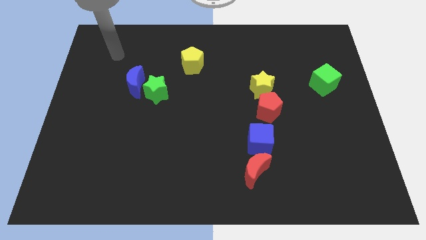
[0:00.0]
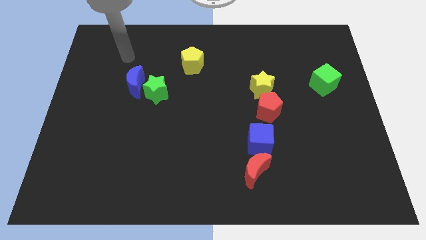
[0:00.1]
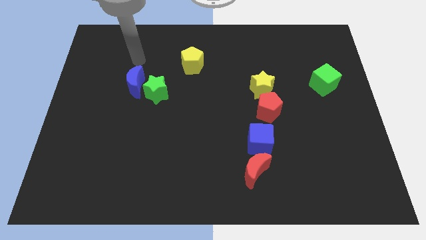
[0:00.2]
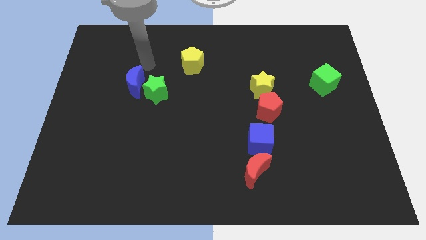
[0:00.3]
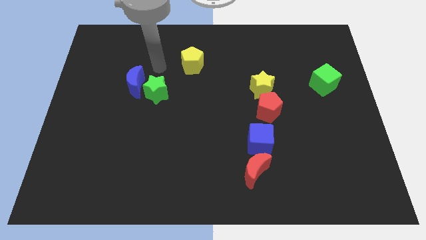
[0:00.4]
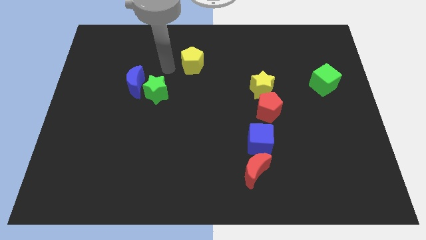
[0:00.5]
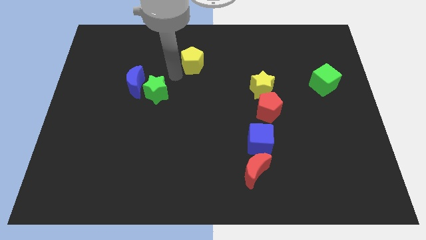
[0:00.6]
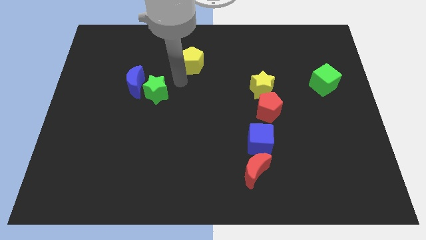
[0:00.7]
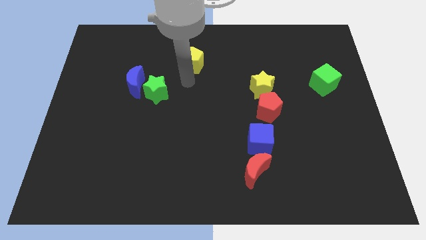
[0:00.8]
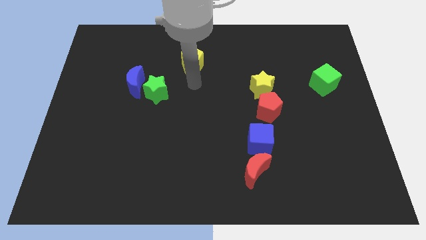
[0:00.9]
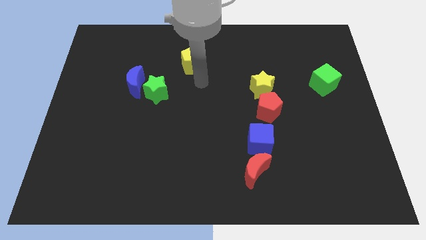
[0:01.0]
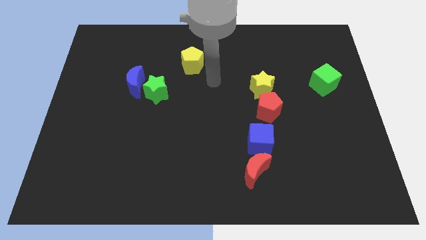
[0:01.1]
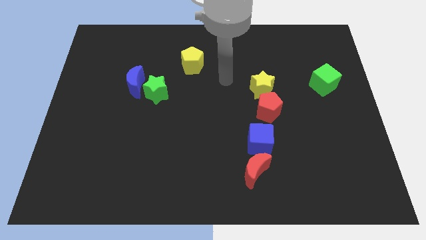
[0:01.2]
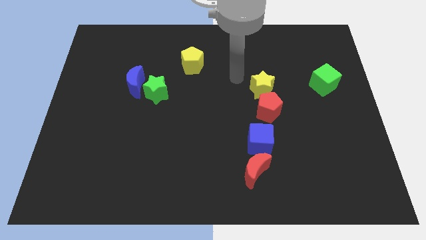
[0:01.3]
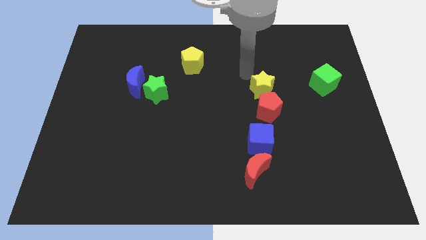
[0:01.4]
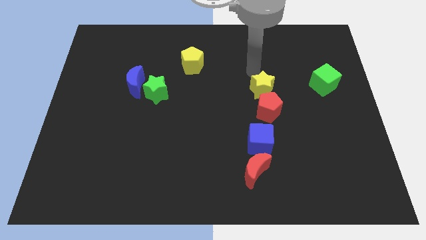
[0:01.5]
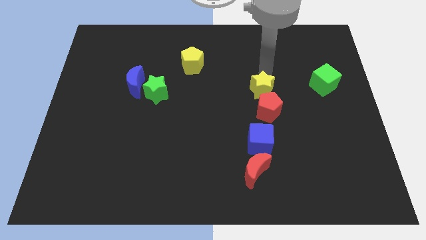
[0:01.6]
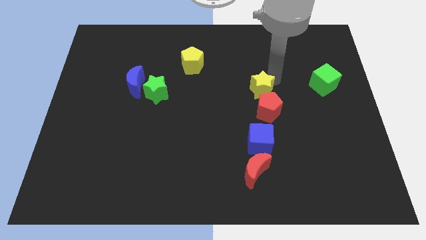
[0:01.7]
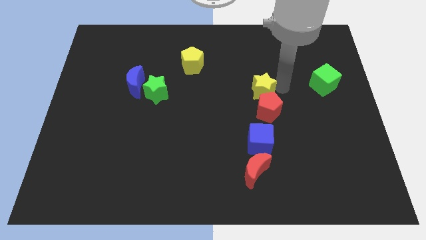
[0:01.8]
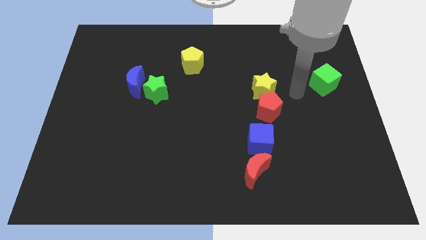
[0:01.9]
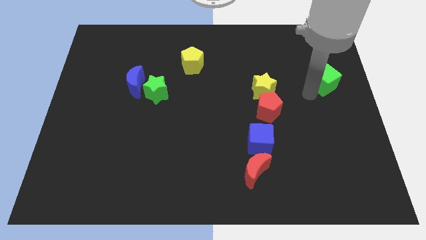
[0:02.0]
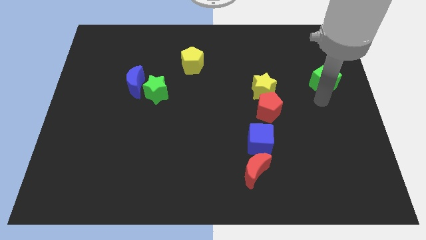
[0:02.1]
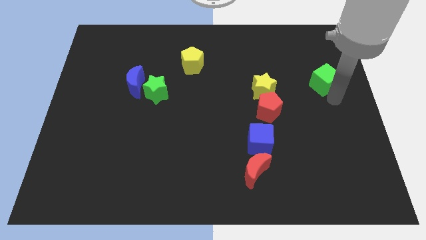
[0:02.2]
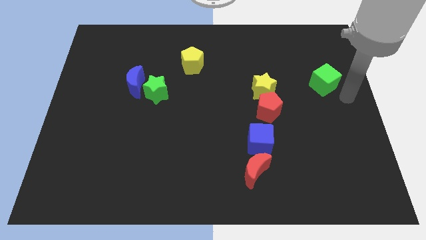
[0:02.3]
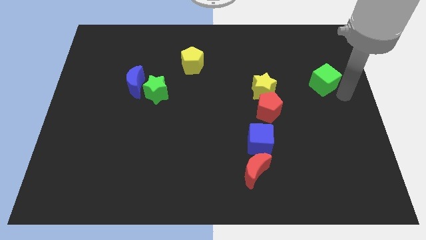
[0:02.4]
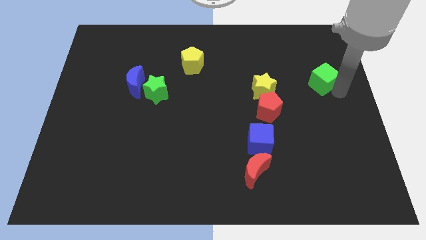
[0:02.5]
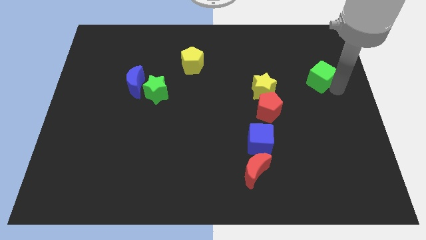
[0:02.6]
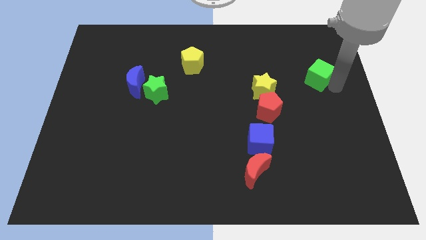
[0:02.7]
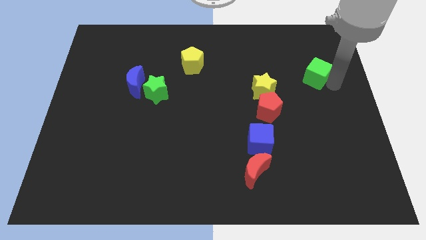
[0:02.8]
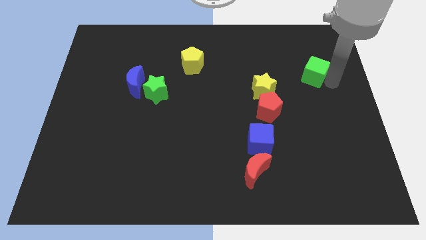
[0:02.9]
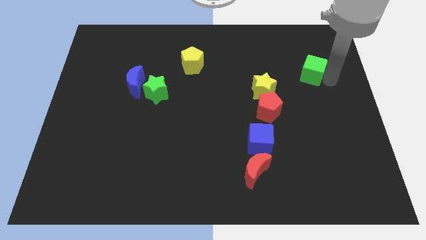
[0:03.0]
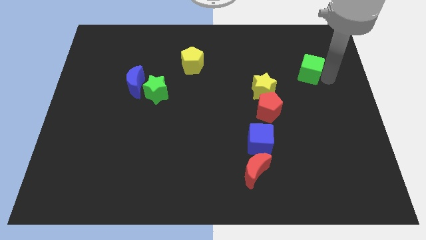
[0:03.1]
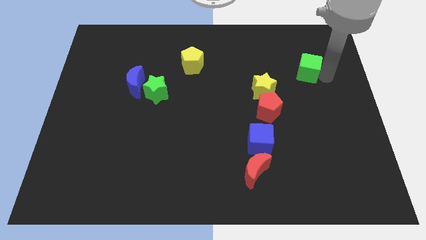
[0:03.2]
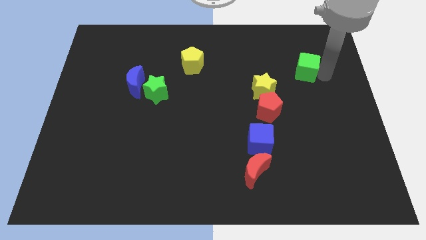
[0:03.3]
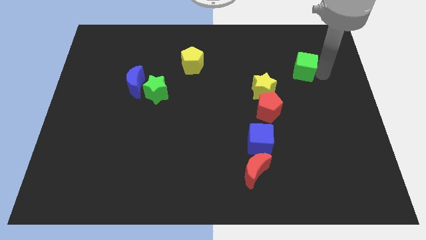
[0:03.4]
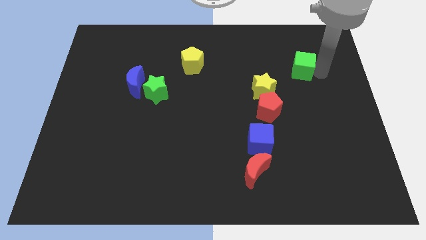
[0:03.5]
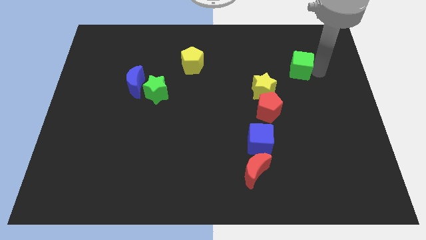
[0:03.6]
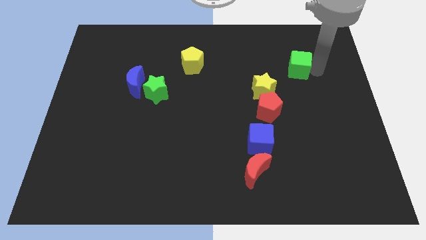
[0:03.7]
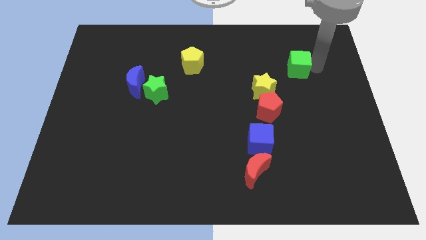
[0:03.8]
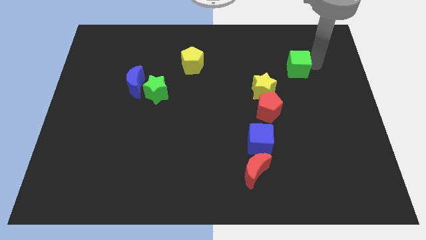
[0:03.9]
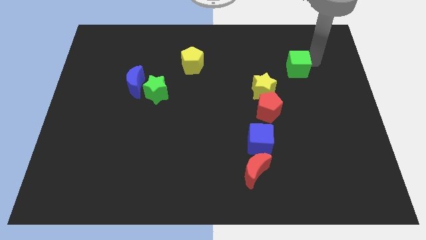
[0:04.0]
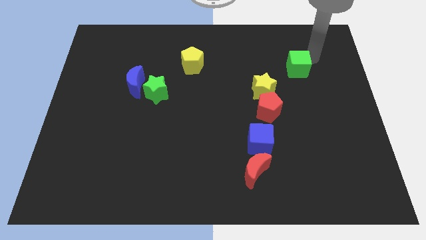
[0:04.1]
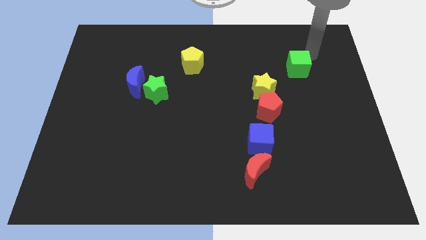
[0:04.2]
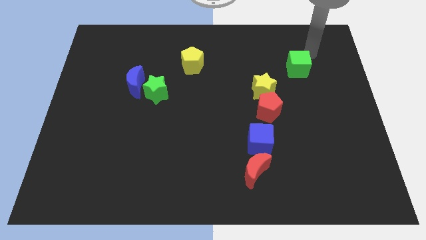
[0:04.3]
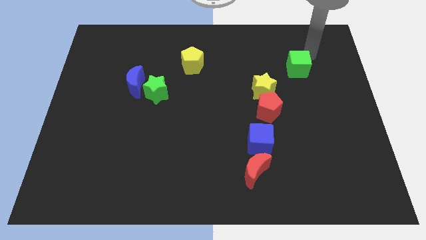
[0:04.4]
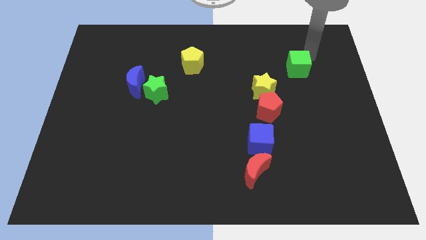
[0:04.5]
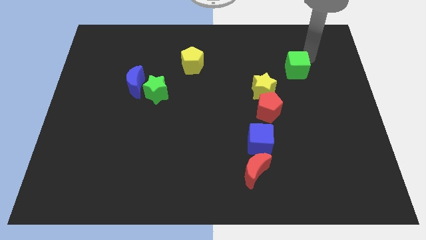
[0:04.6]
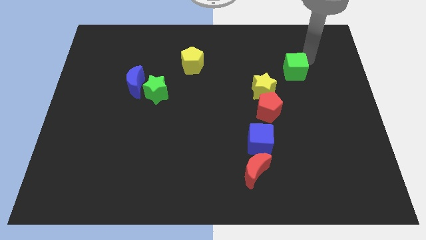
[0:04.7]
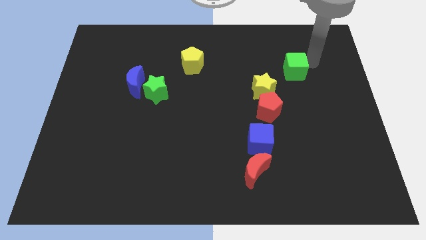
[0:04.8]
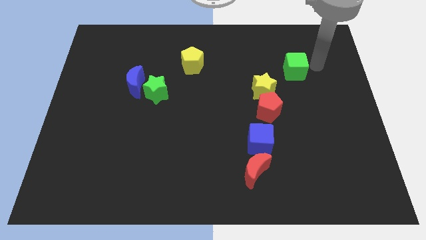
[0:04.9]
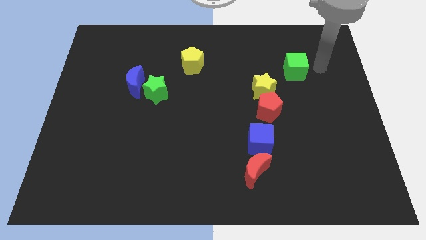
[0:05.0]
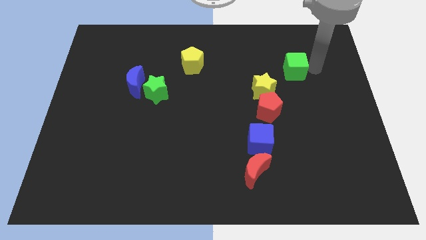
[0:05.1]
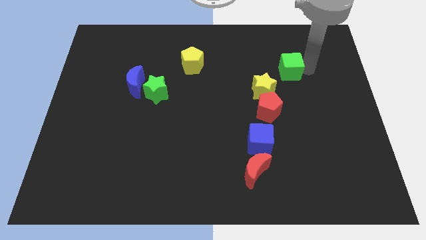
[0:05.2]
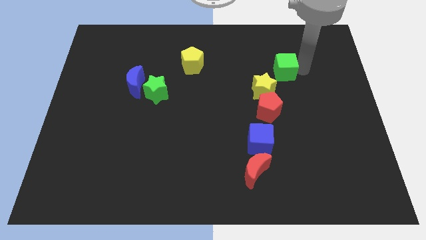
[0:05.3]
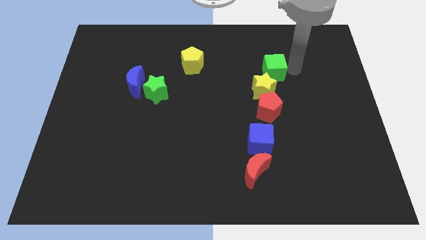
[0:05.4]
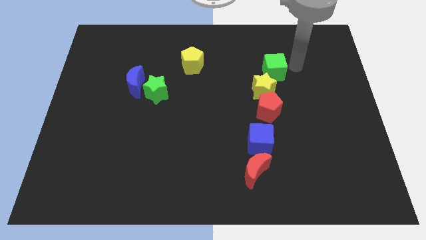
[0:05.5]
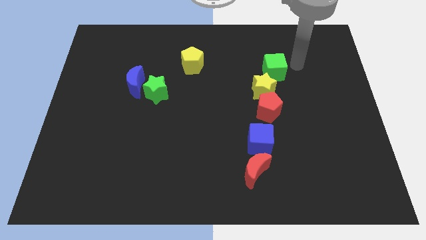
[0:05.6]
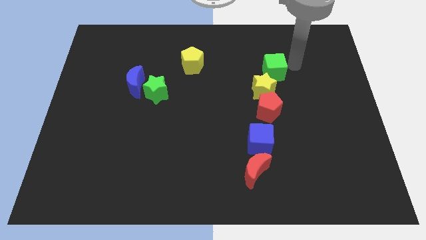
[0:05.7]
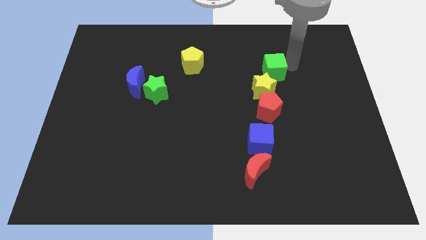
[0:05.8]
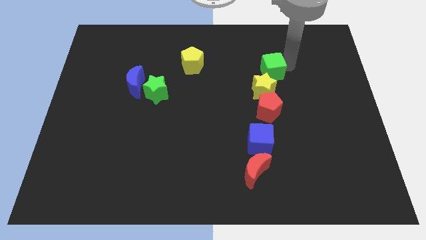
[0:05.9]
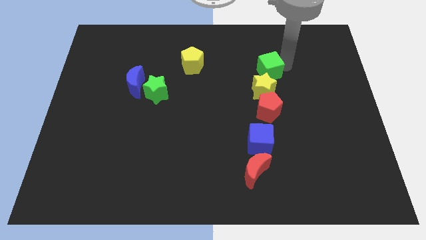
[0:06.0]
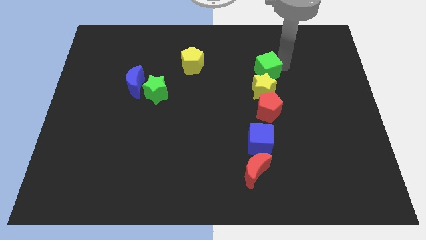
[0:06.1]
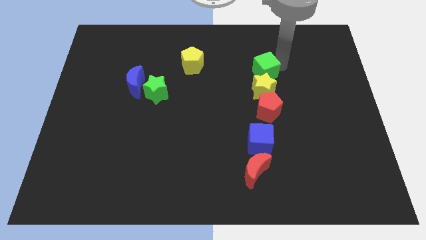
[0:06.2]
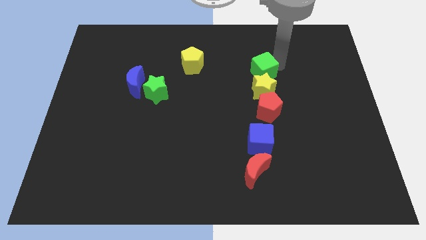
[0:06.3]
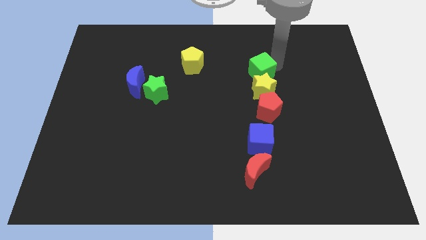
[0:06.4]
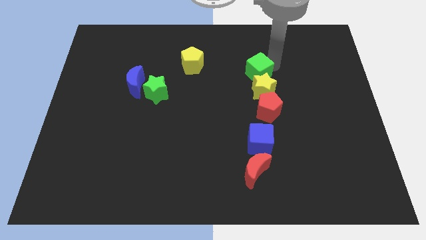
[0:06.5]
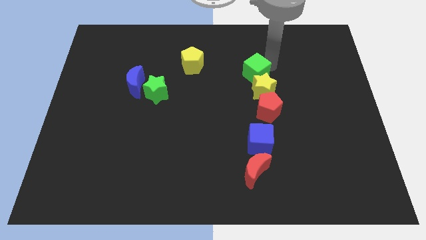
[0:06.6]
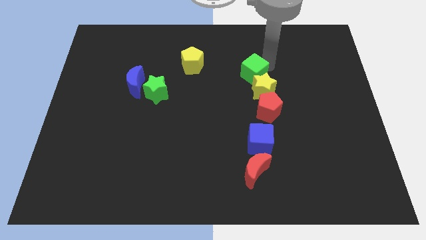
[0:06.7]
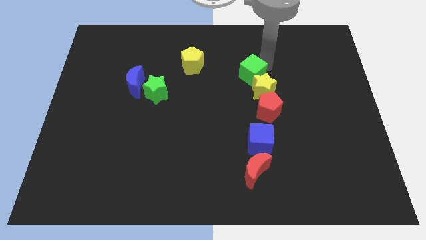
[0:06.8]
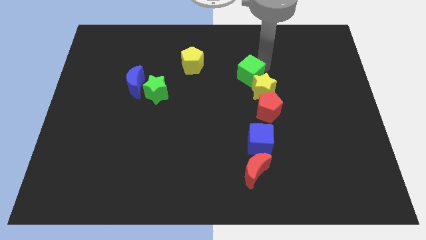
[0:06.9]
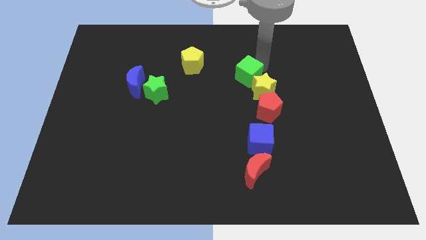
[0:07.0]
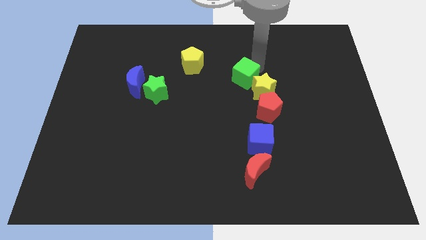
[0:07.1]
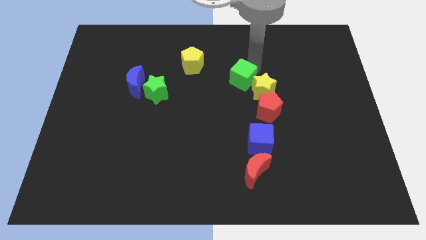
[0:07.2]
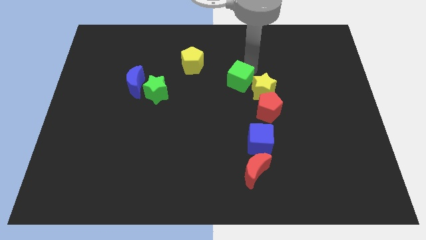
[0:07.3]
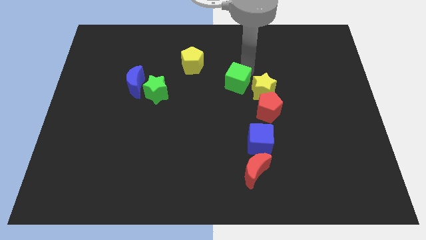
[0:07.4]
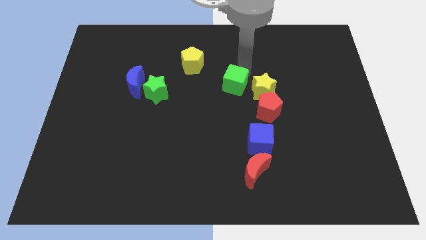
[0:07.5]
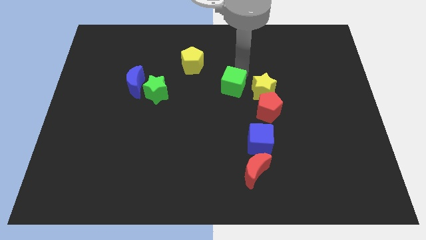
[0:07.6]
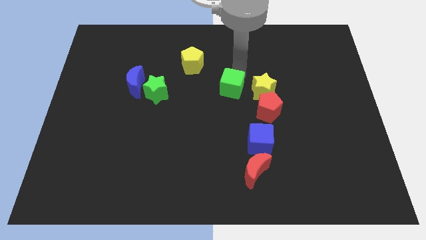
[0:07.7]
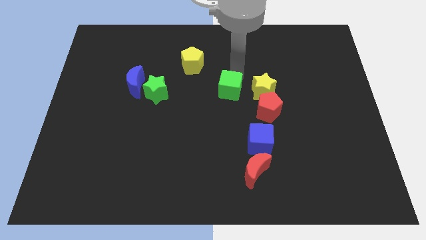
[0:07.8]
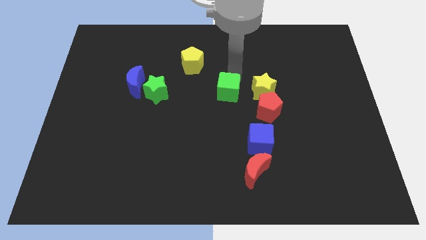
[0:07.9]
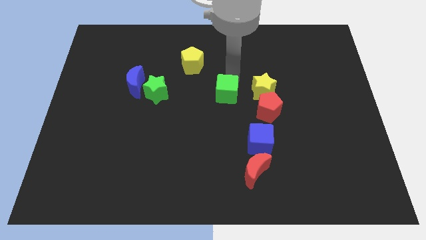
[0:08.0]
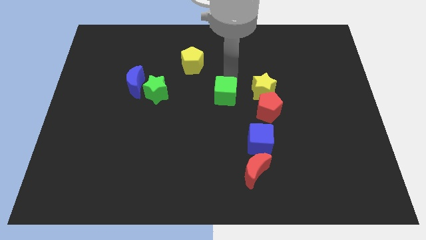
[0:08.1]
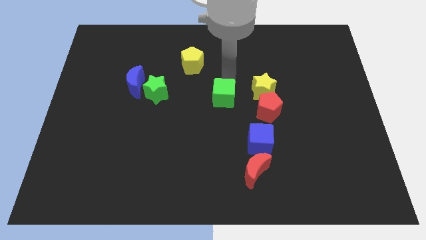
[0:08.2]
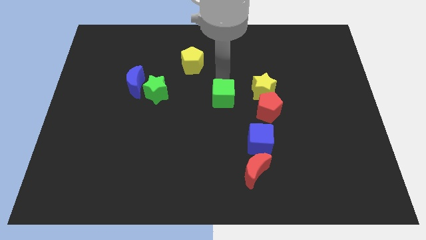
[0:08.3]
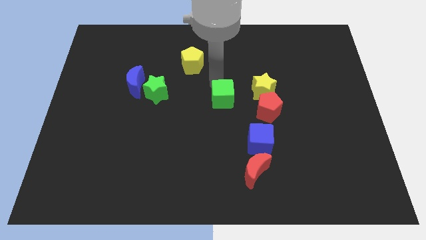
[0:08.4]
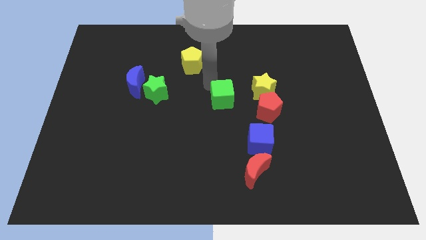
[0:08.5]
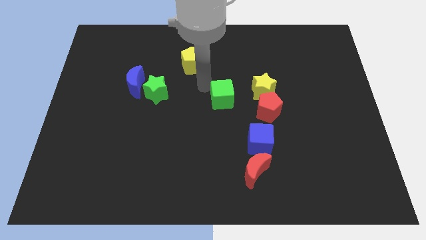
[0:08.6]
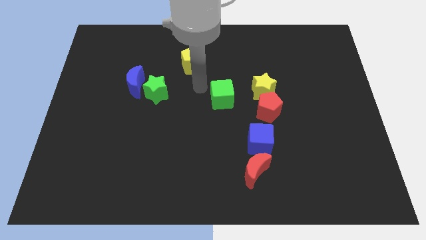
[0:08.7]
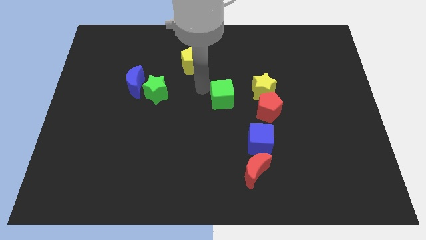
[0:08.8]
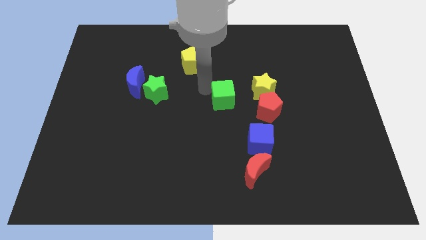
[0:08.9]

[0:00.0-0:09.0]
put the green cube diagonally down and to the left of the yellow star
